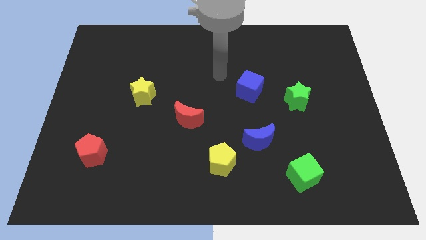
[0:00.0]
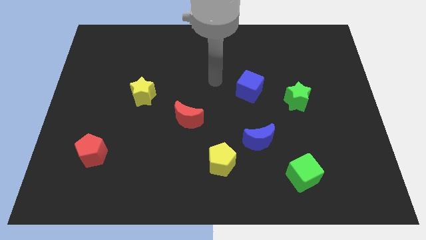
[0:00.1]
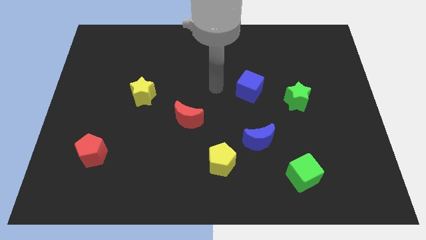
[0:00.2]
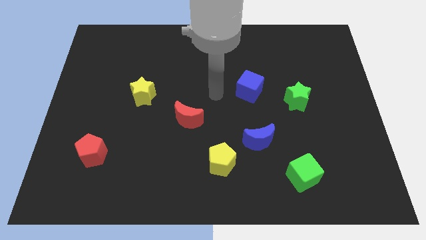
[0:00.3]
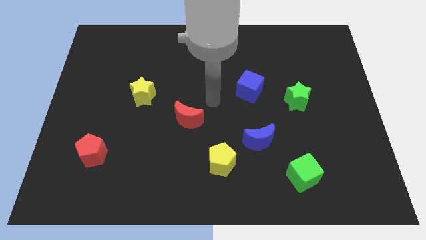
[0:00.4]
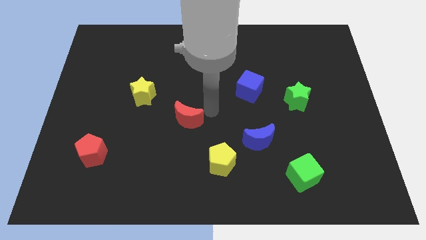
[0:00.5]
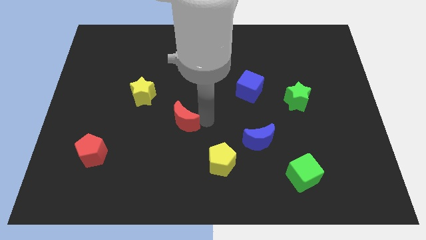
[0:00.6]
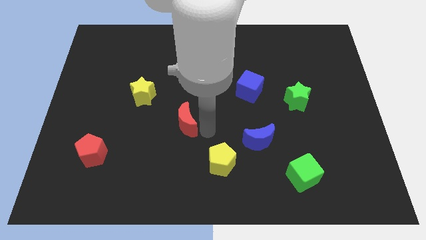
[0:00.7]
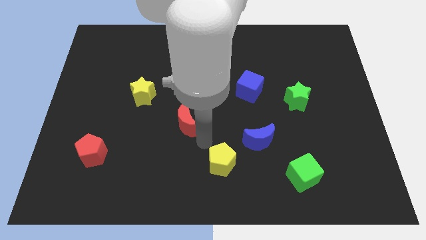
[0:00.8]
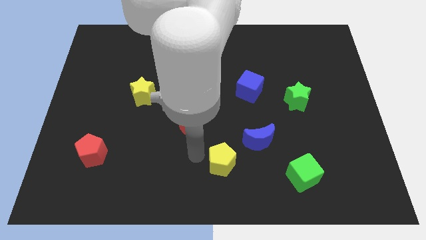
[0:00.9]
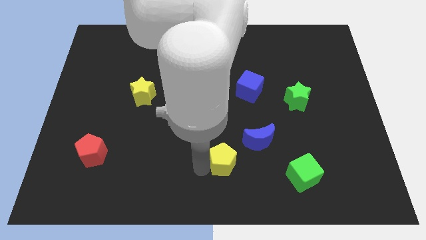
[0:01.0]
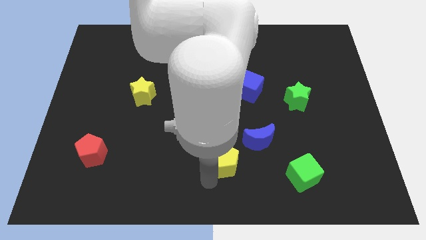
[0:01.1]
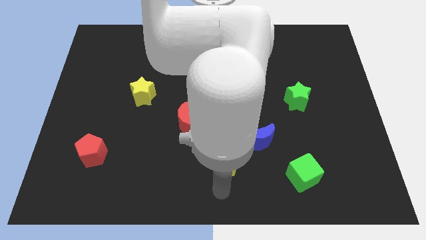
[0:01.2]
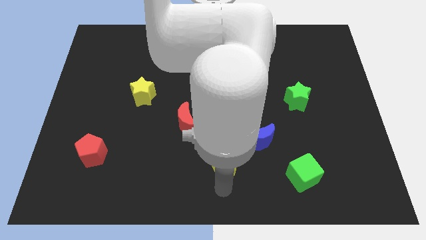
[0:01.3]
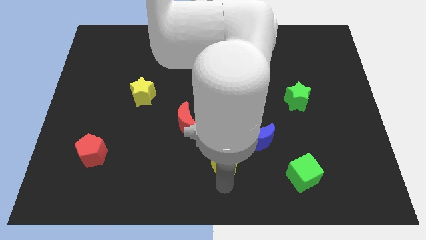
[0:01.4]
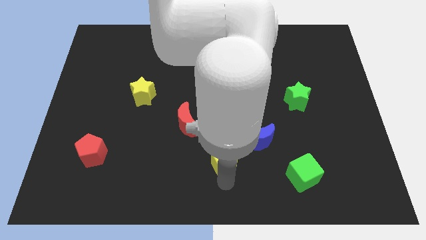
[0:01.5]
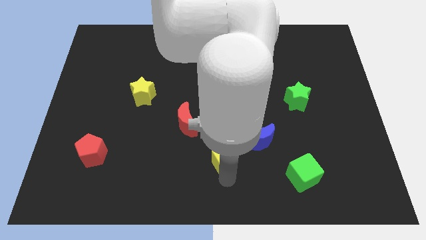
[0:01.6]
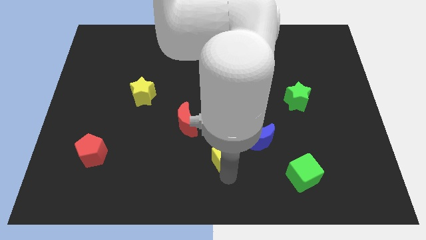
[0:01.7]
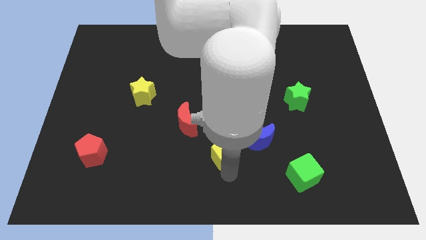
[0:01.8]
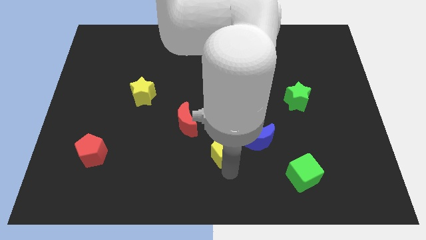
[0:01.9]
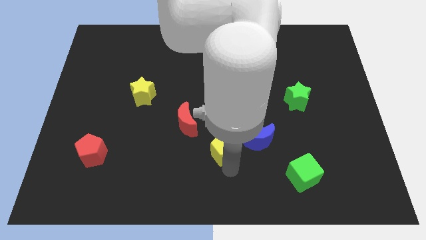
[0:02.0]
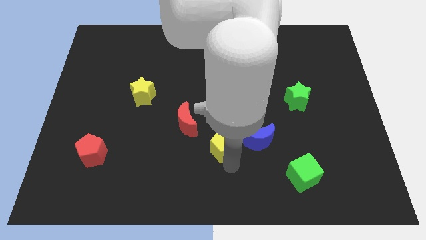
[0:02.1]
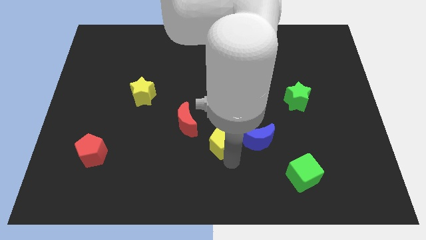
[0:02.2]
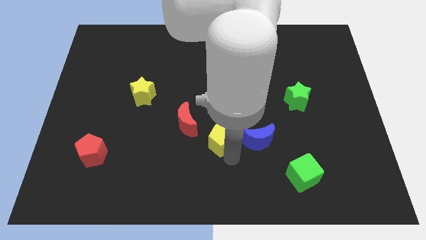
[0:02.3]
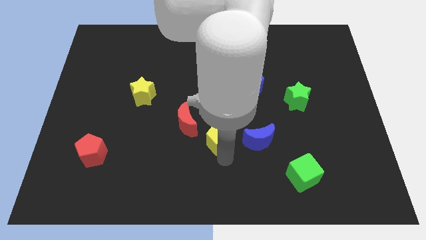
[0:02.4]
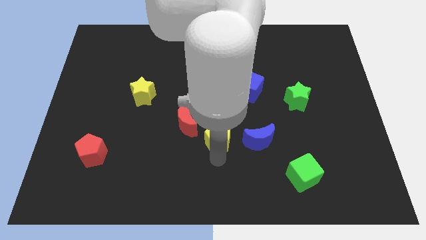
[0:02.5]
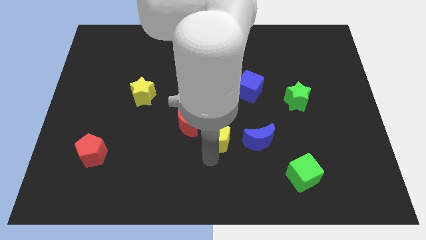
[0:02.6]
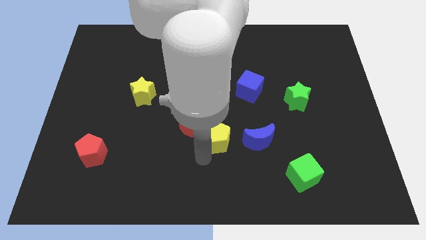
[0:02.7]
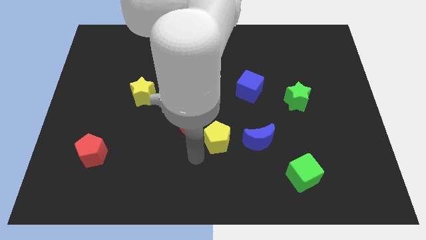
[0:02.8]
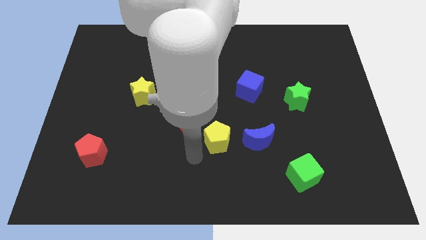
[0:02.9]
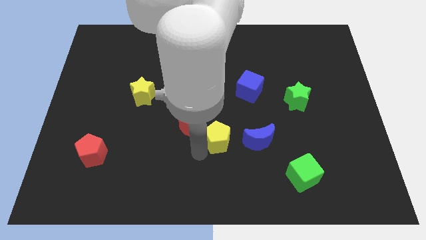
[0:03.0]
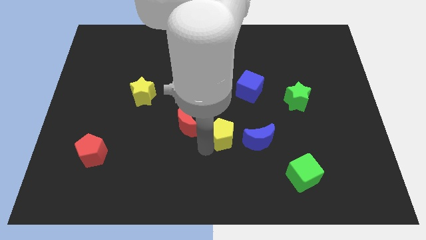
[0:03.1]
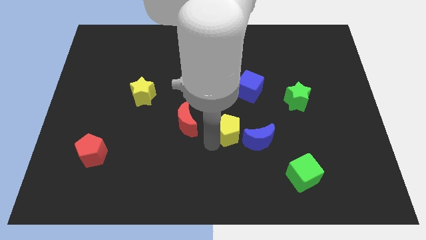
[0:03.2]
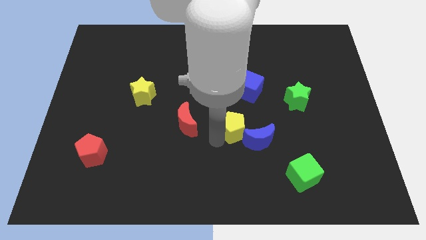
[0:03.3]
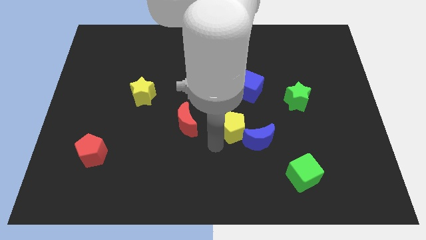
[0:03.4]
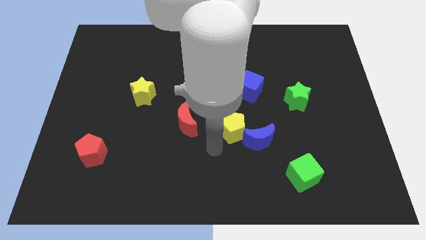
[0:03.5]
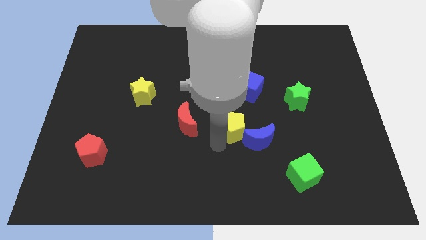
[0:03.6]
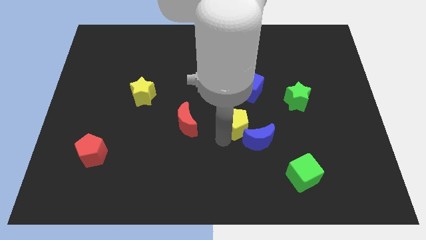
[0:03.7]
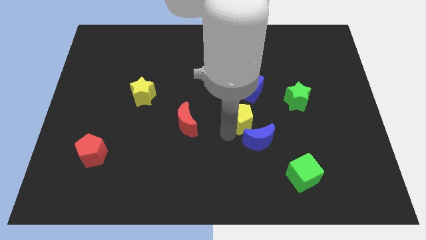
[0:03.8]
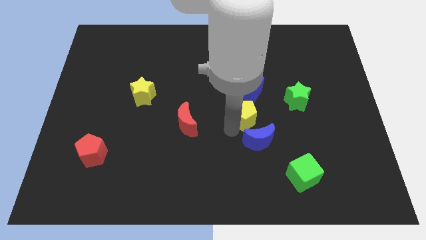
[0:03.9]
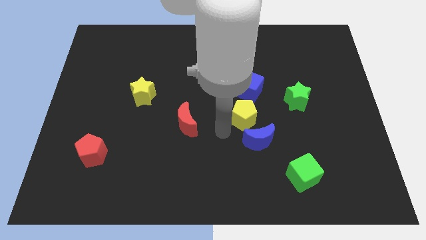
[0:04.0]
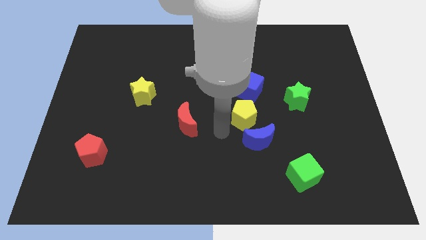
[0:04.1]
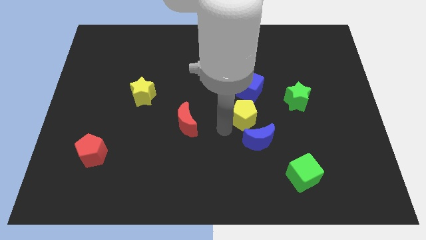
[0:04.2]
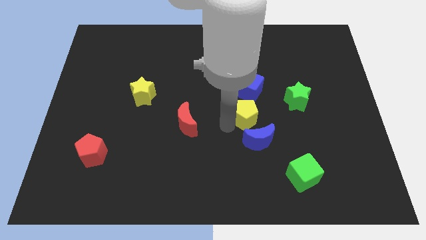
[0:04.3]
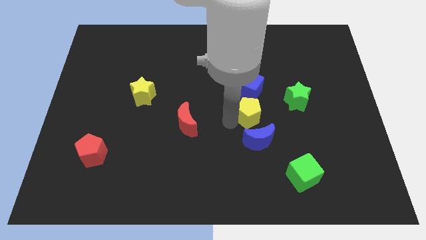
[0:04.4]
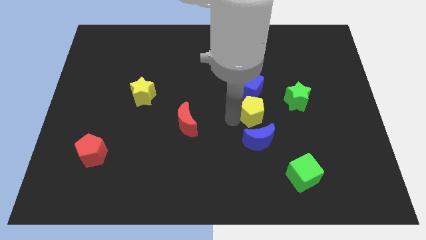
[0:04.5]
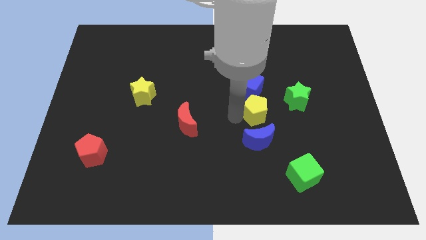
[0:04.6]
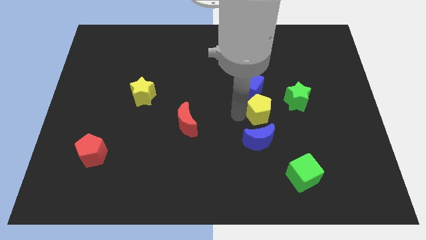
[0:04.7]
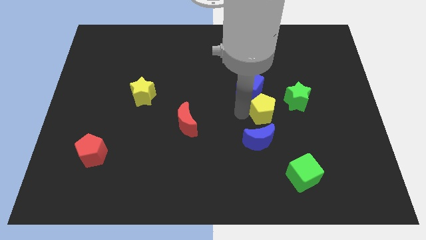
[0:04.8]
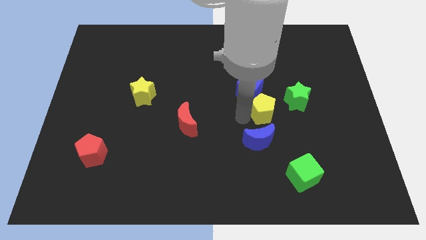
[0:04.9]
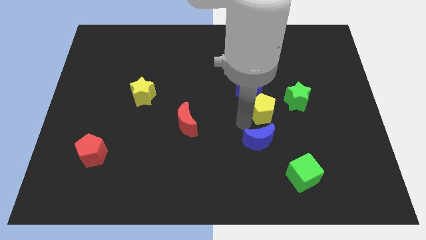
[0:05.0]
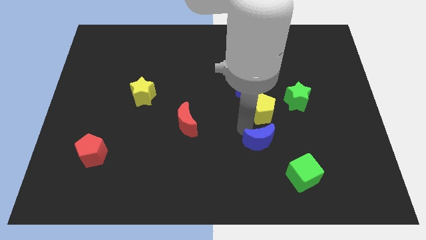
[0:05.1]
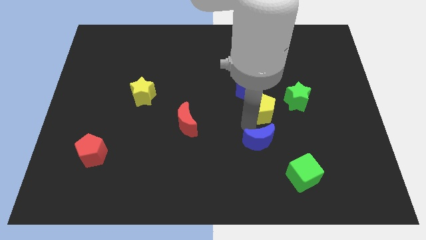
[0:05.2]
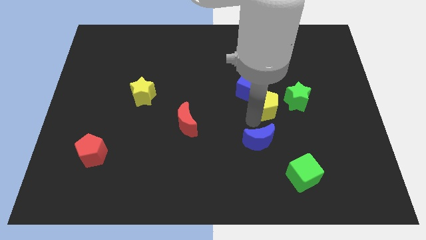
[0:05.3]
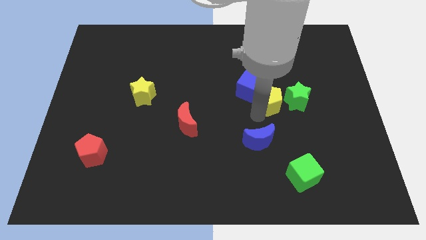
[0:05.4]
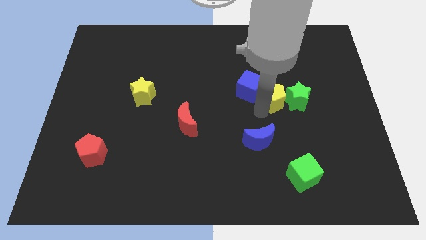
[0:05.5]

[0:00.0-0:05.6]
push the yellow pentagon upwards and then to the right

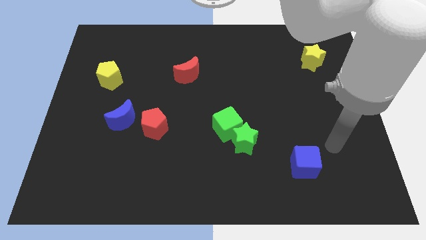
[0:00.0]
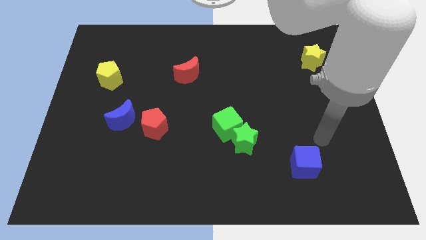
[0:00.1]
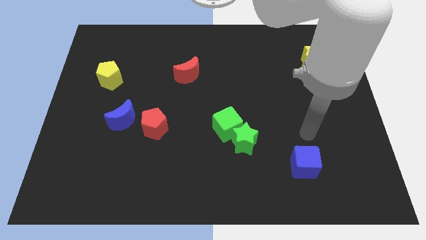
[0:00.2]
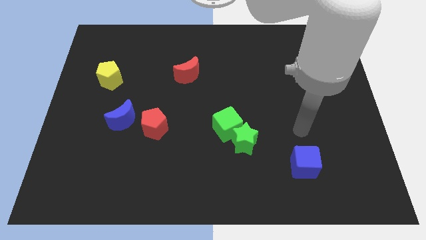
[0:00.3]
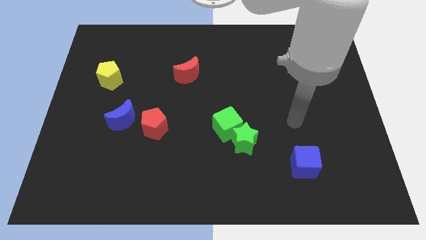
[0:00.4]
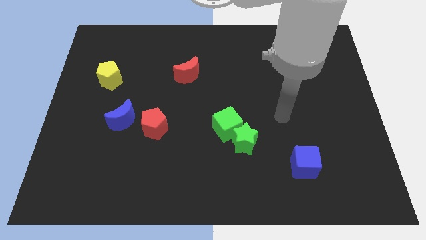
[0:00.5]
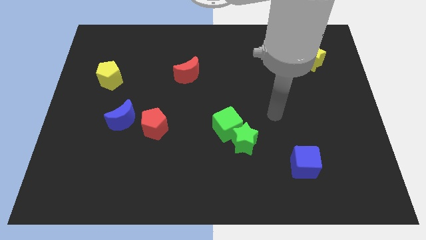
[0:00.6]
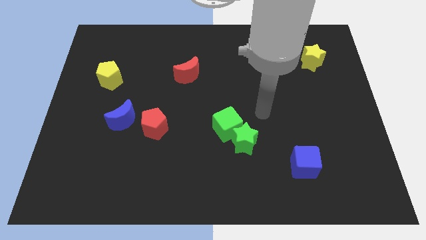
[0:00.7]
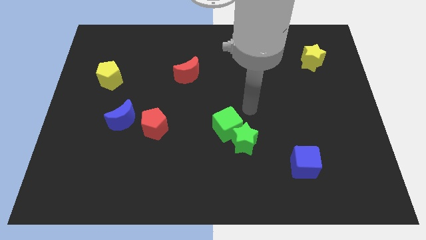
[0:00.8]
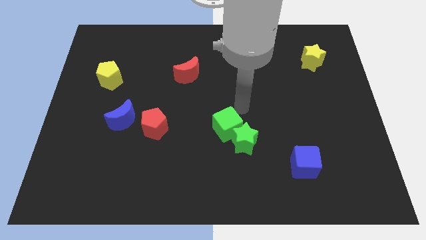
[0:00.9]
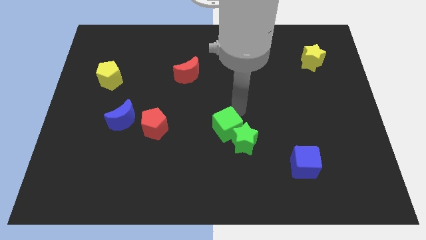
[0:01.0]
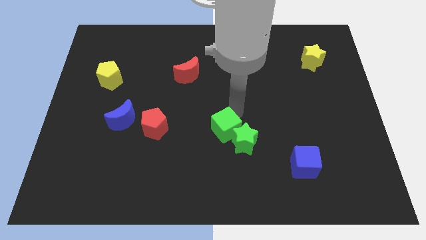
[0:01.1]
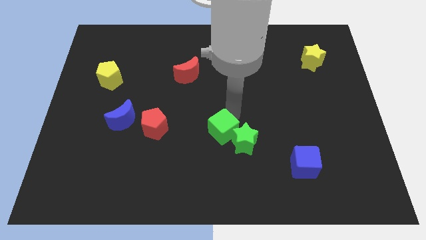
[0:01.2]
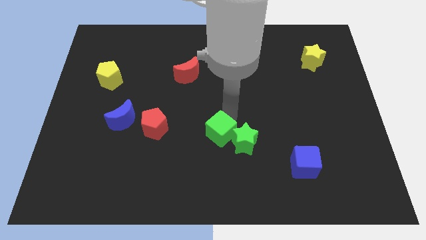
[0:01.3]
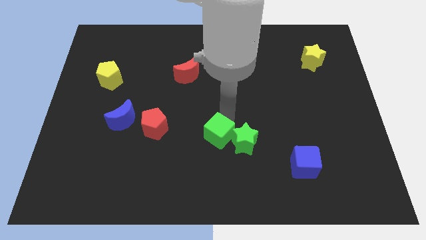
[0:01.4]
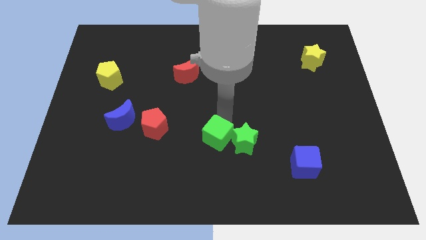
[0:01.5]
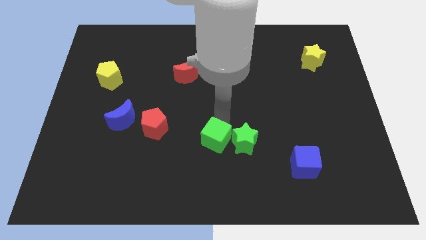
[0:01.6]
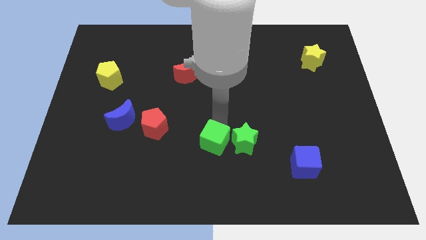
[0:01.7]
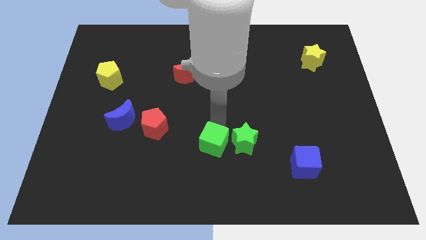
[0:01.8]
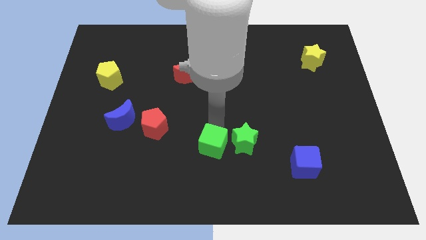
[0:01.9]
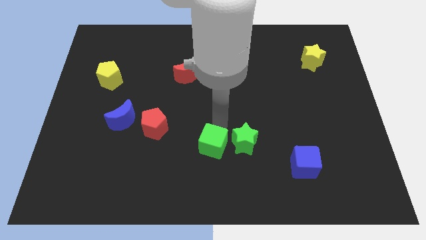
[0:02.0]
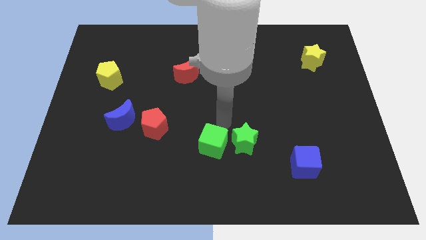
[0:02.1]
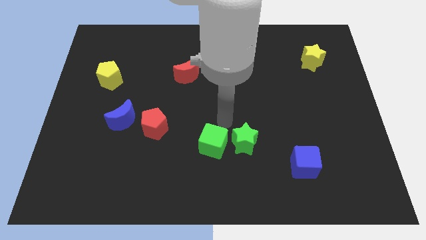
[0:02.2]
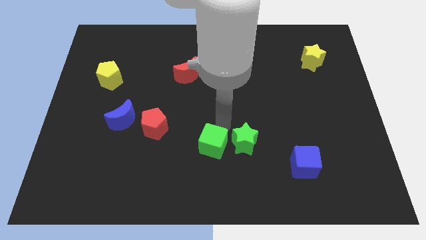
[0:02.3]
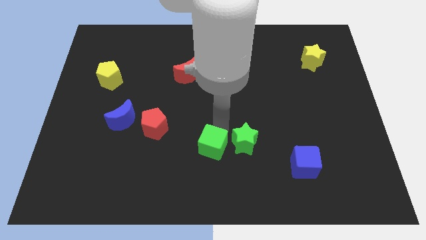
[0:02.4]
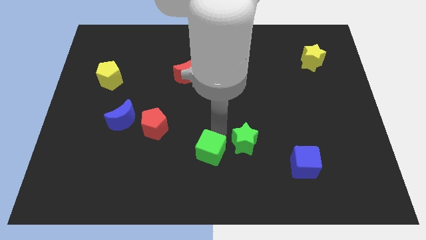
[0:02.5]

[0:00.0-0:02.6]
push the green cube somewhat down and then left
